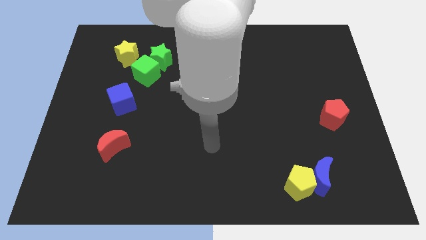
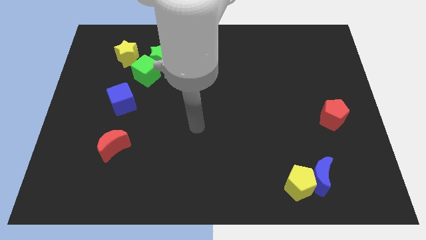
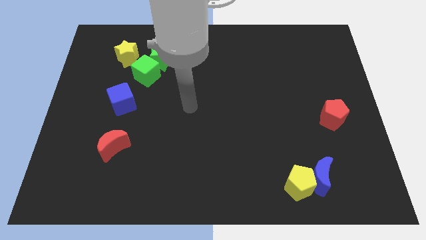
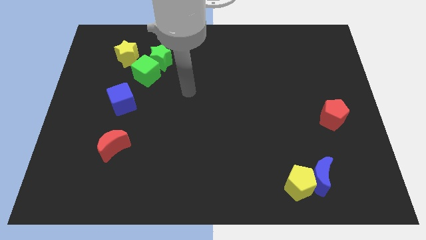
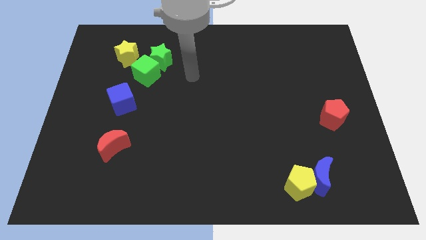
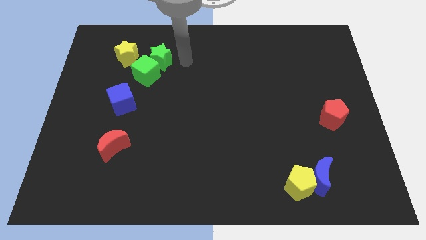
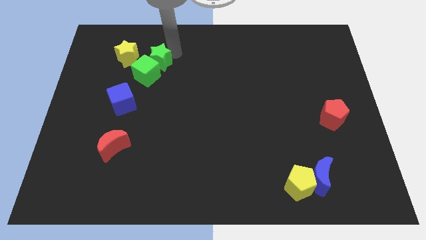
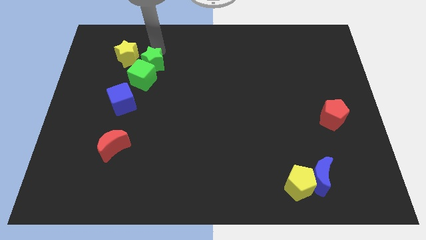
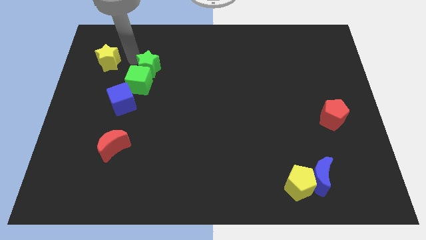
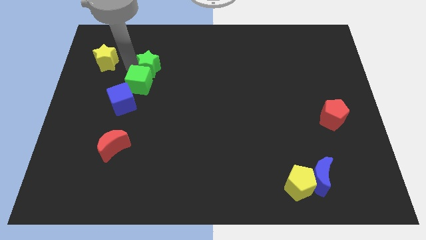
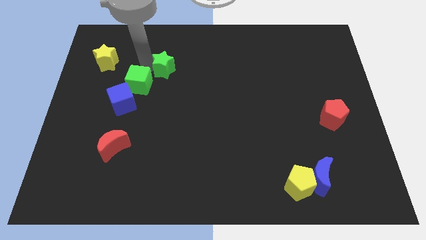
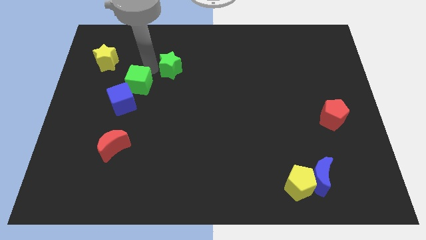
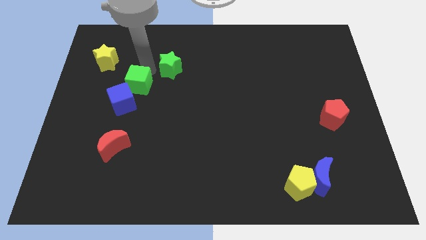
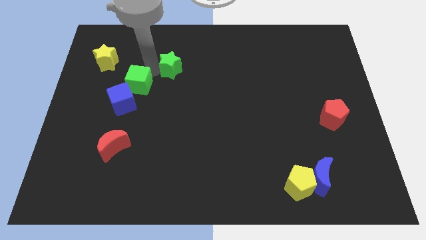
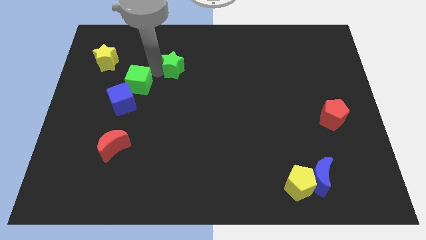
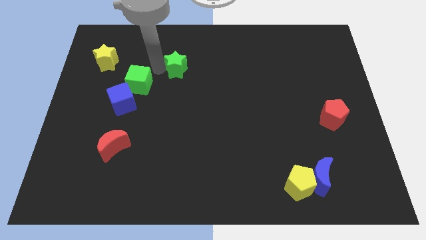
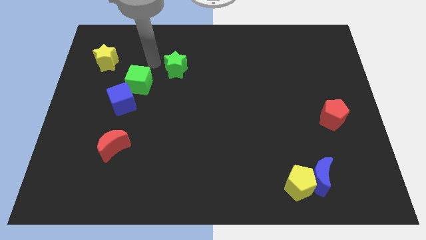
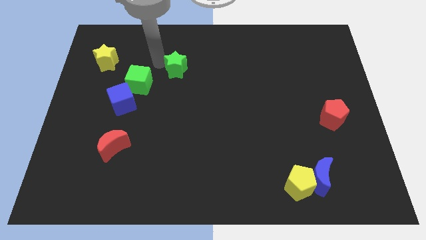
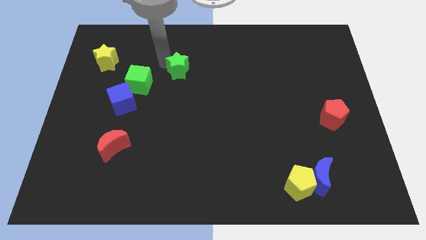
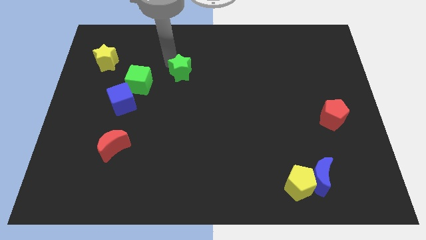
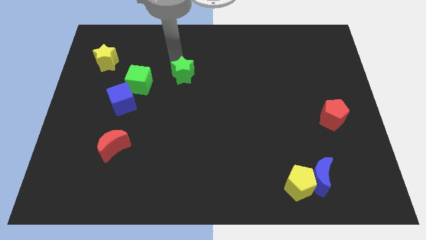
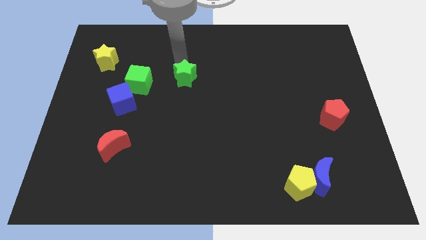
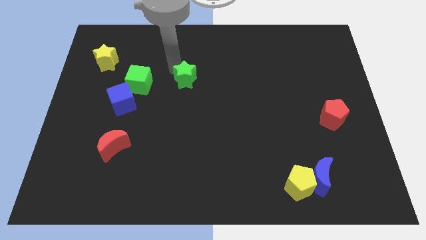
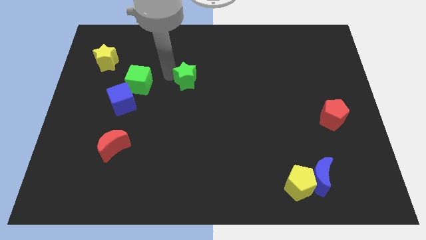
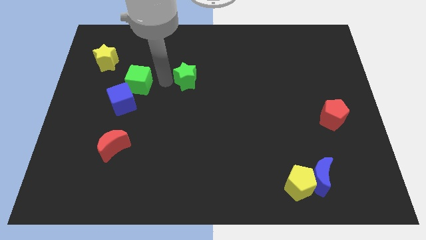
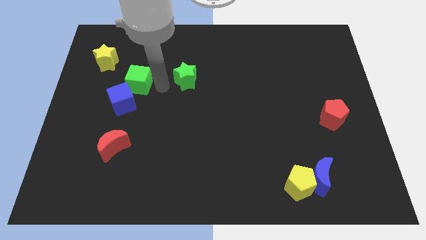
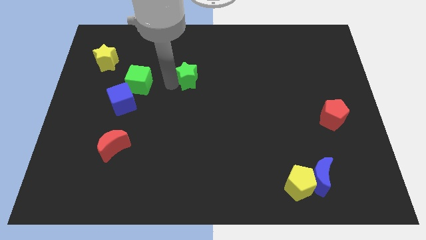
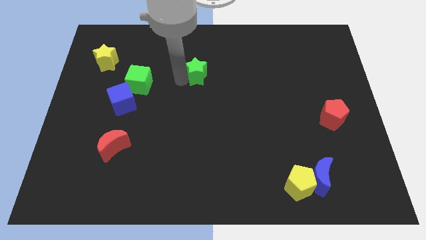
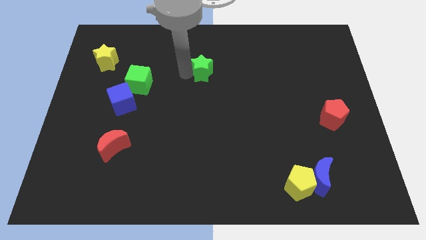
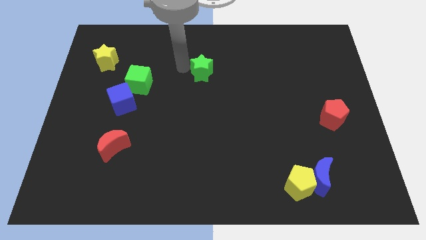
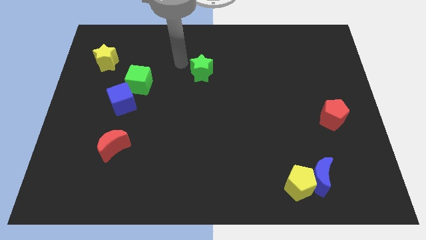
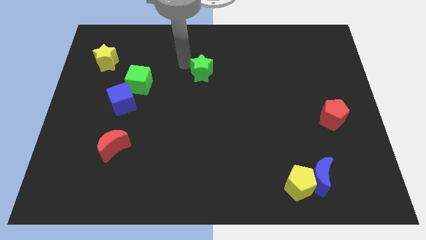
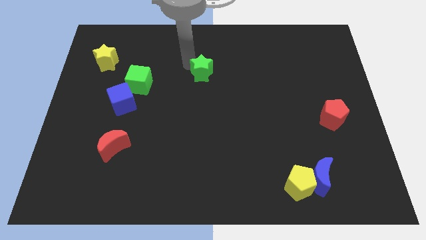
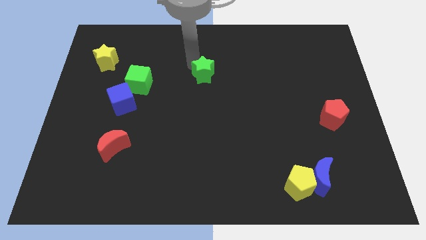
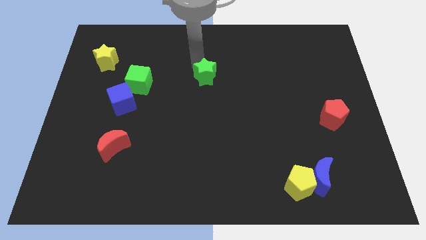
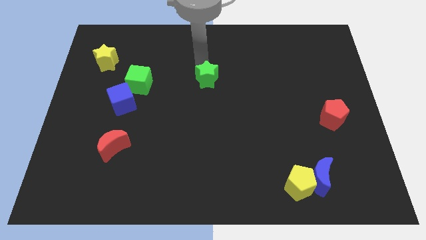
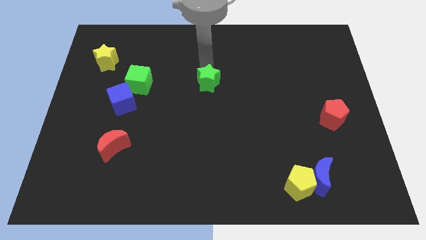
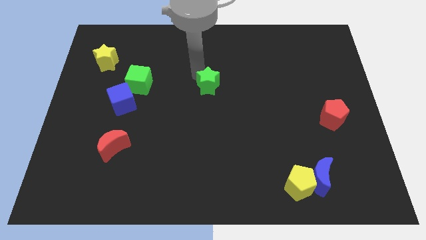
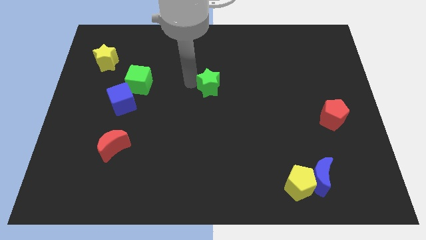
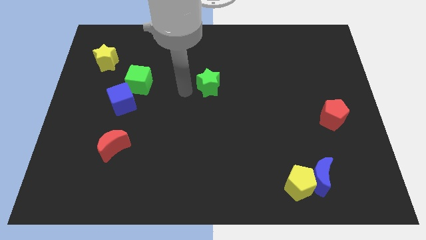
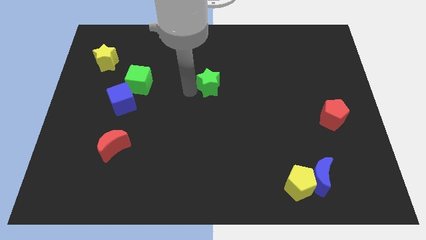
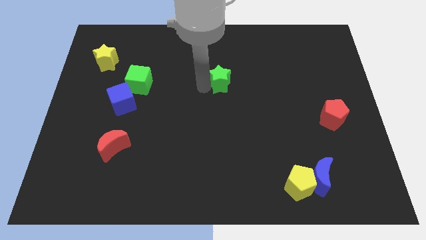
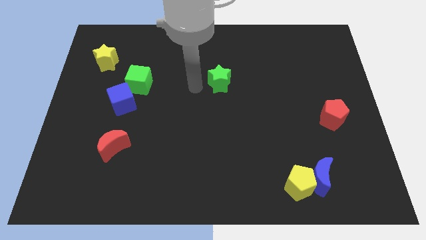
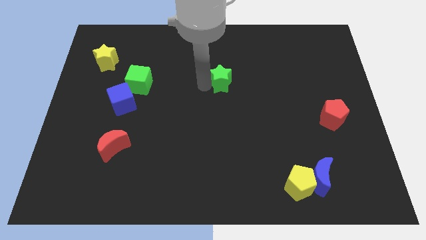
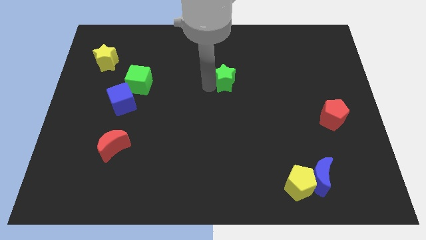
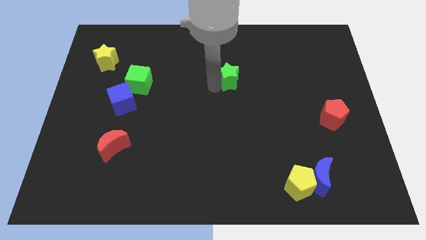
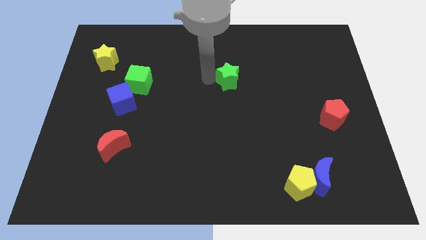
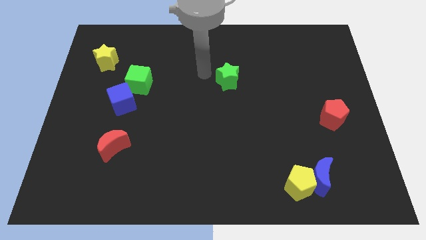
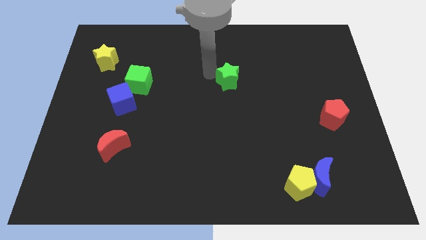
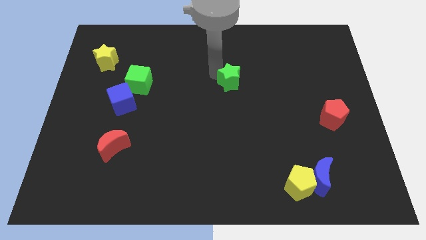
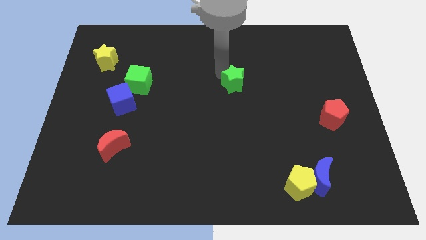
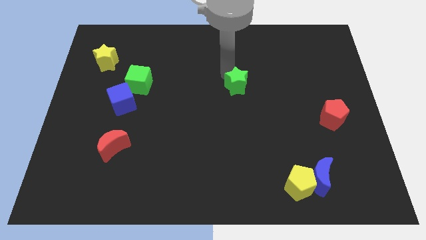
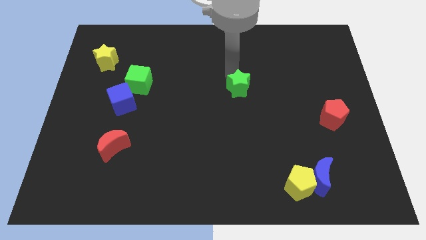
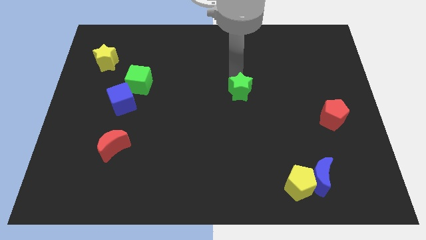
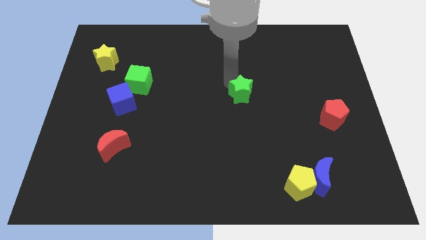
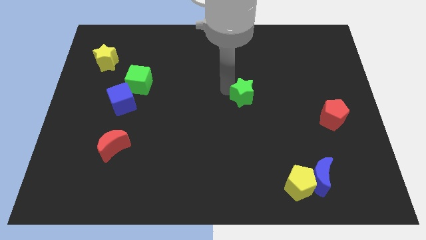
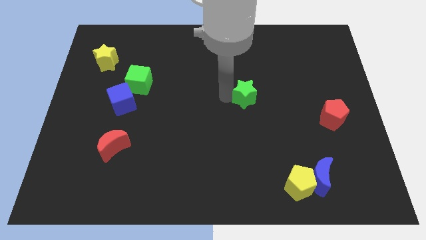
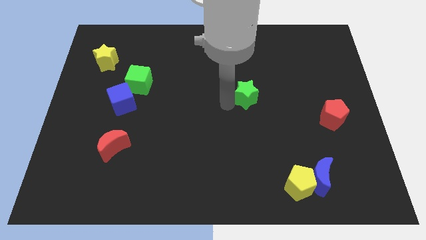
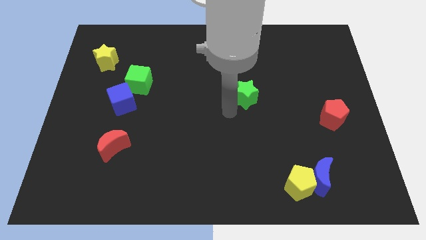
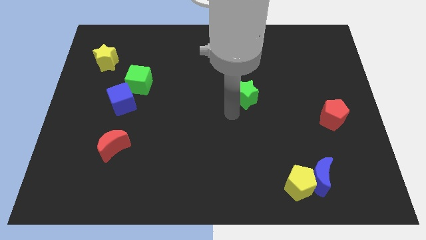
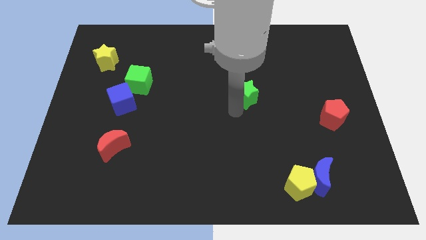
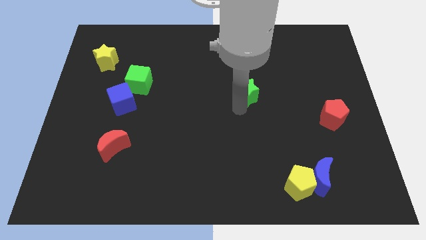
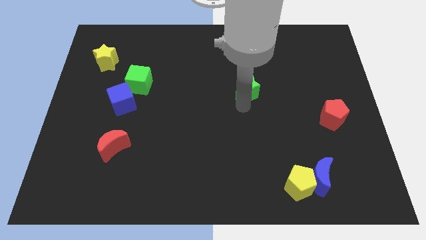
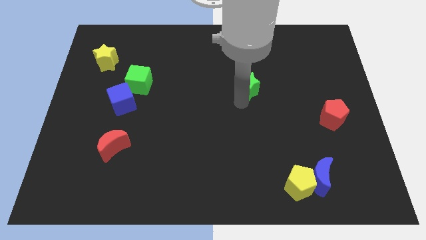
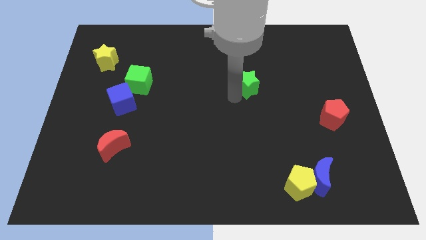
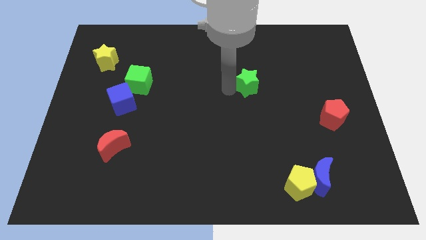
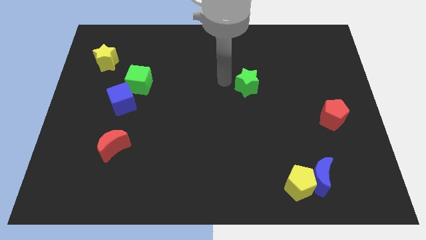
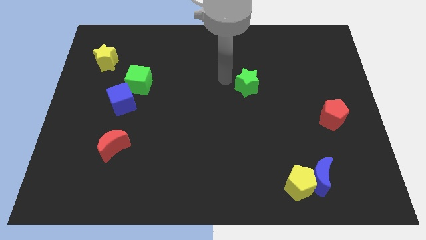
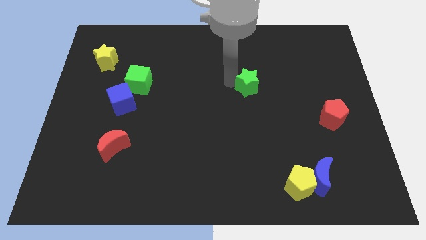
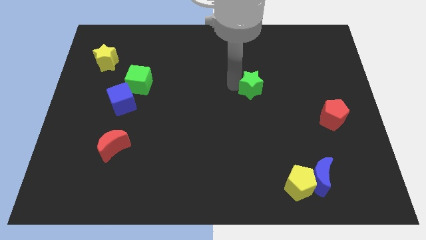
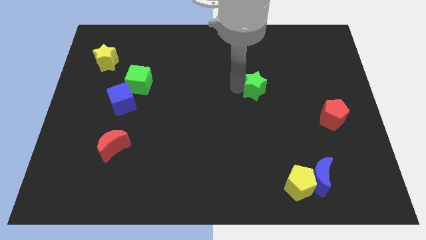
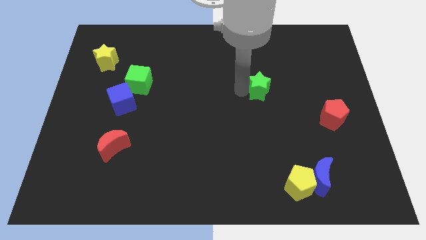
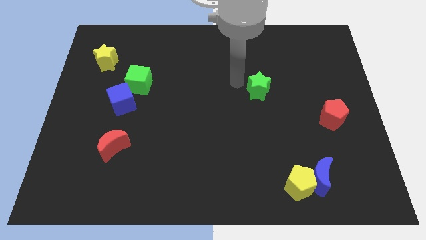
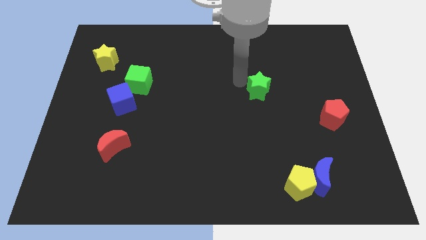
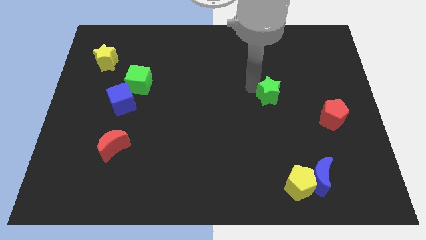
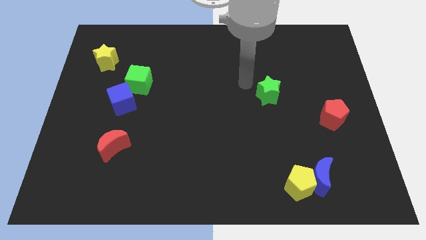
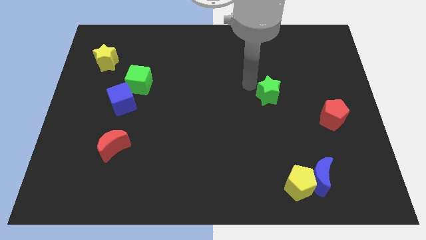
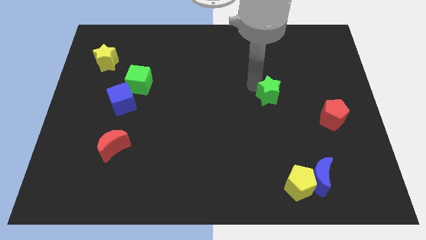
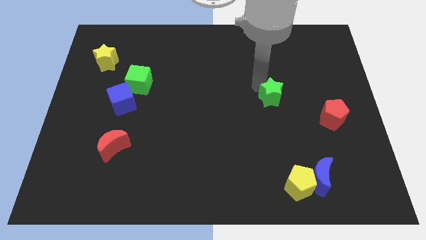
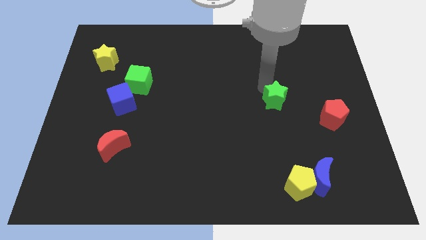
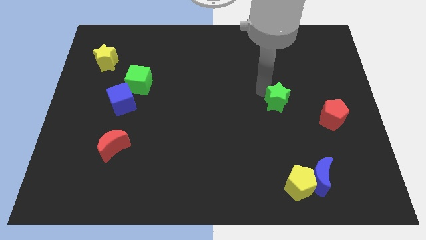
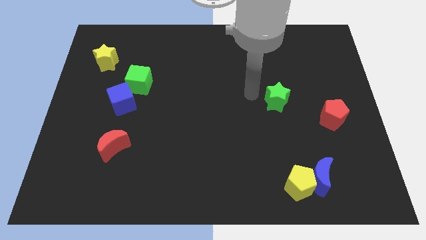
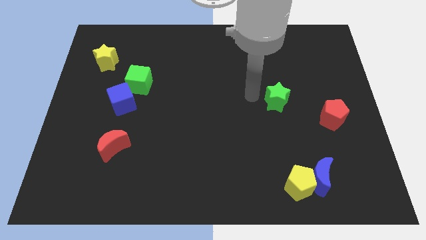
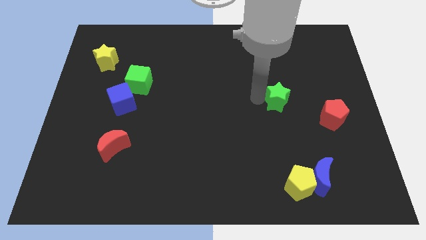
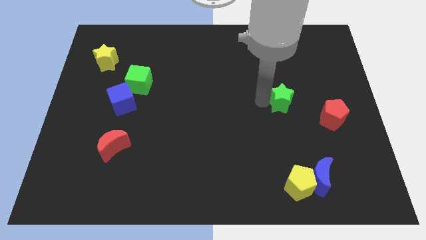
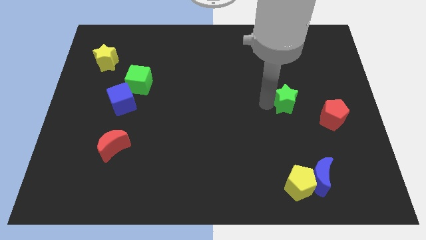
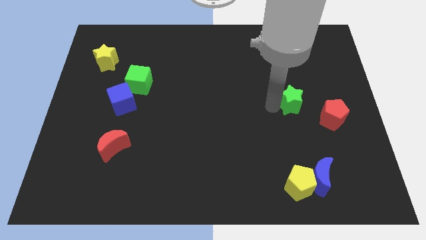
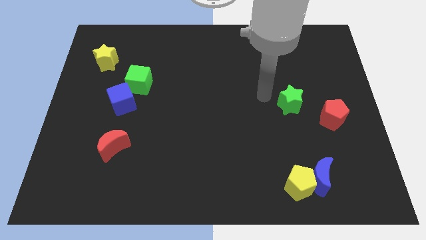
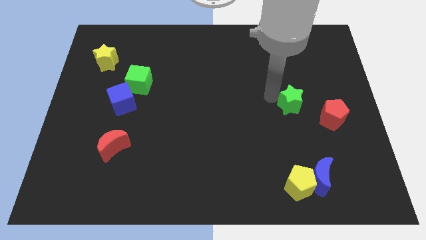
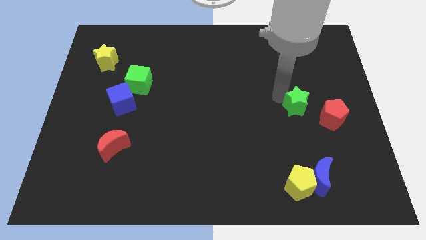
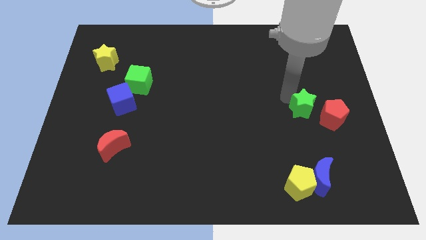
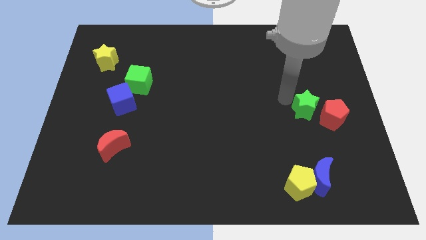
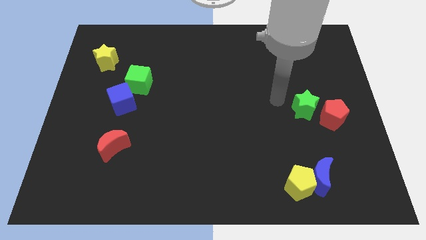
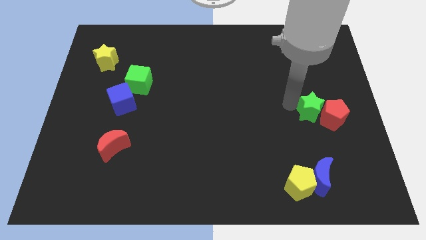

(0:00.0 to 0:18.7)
put the green star close to the red pentagon
